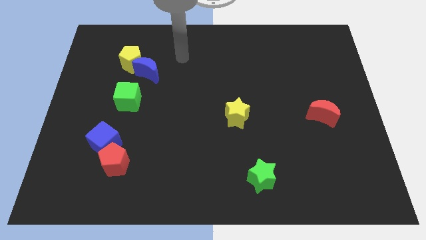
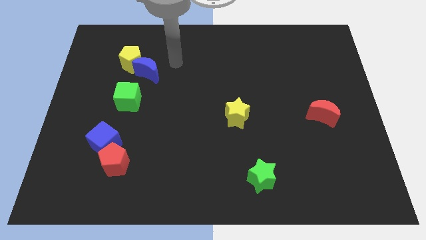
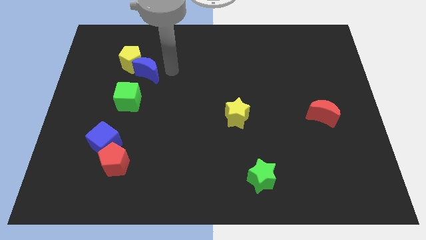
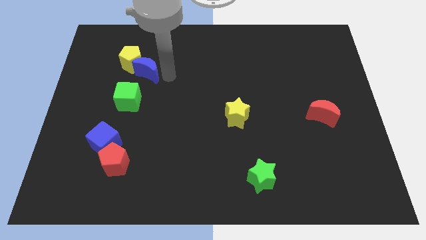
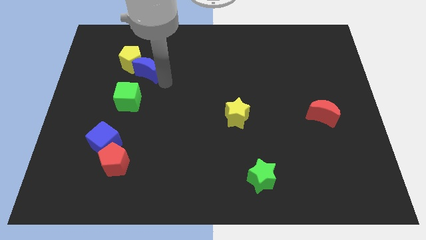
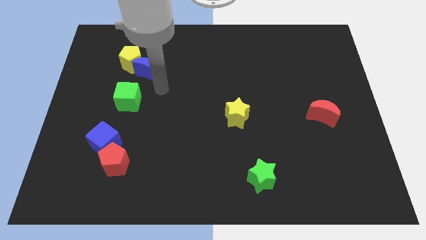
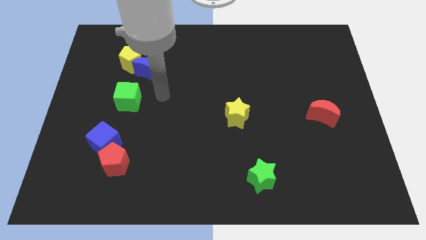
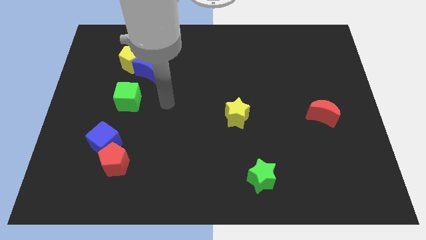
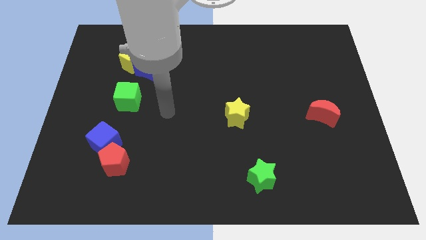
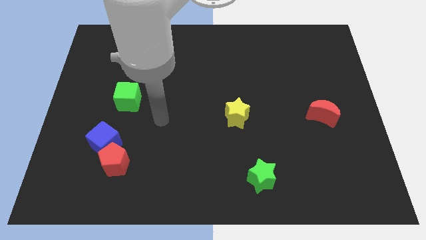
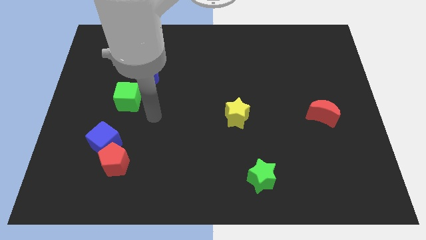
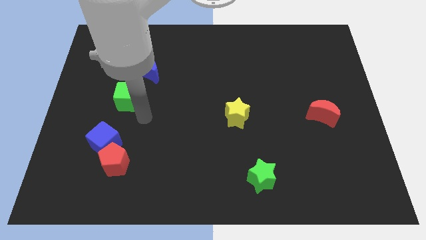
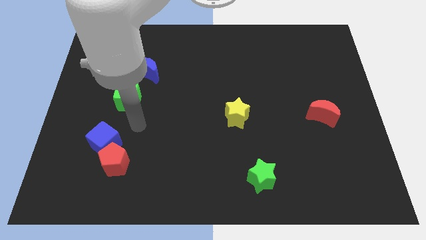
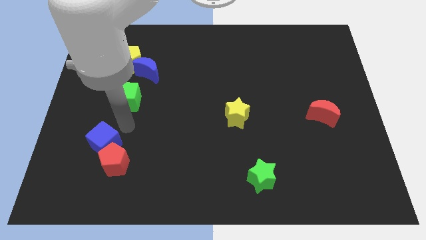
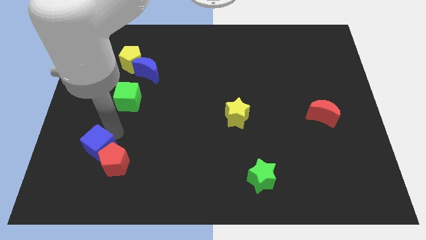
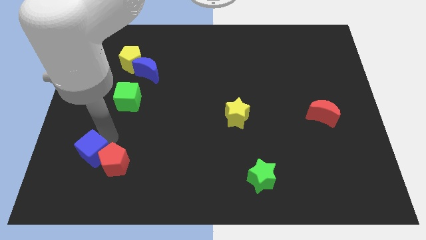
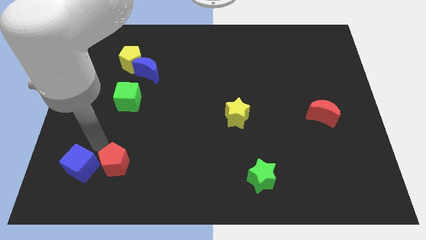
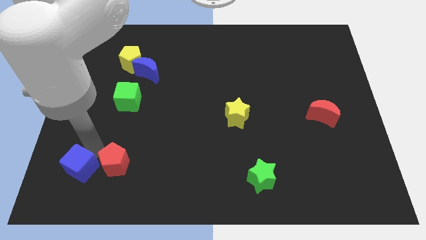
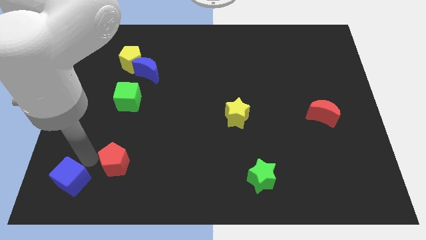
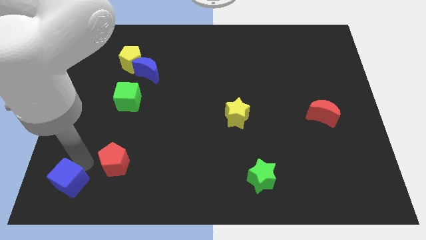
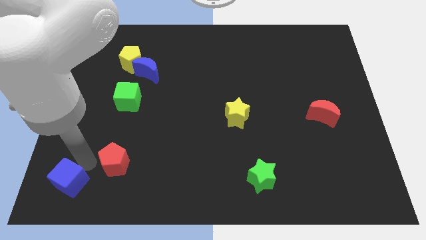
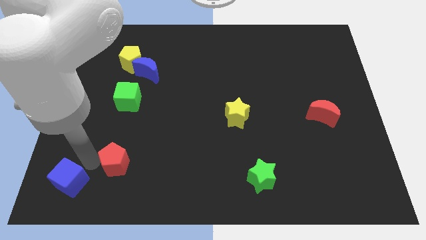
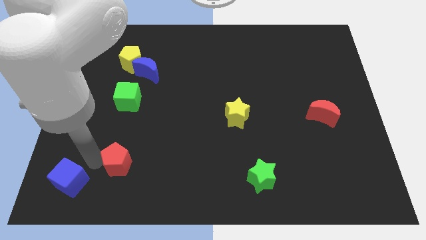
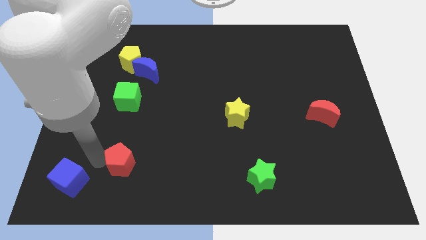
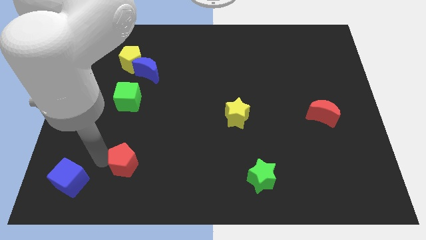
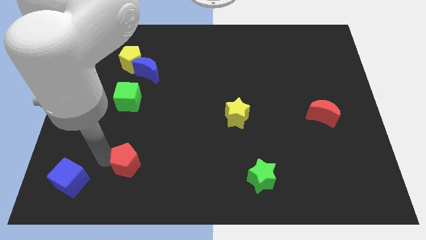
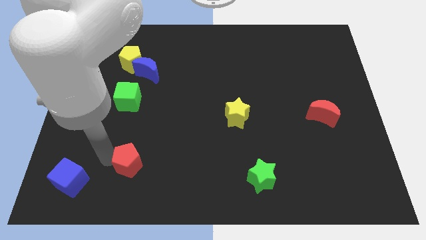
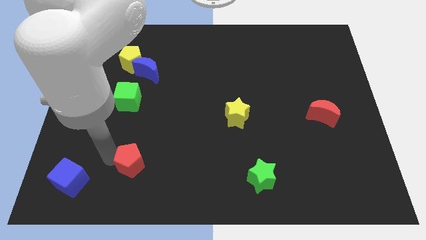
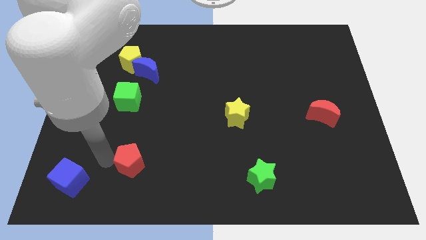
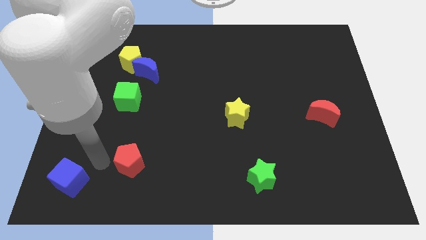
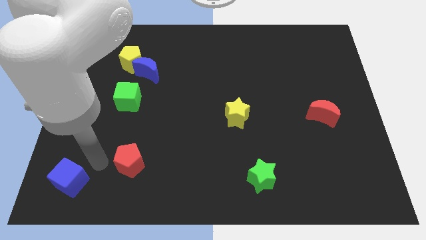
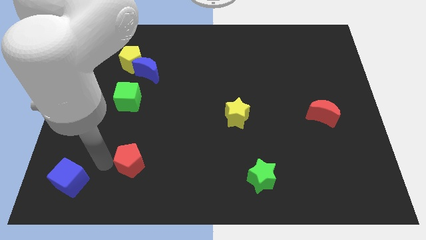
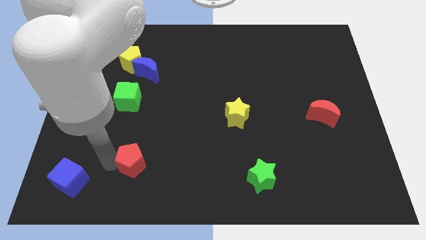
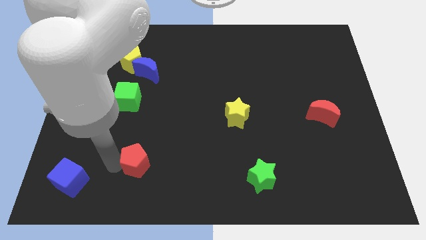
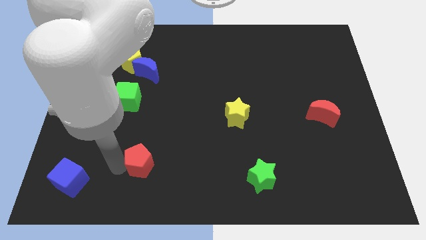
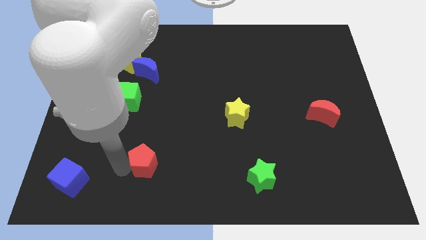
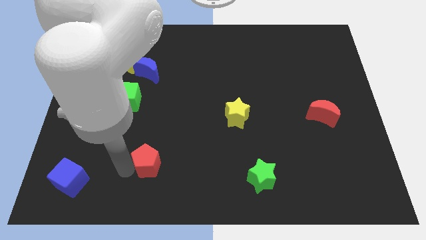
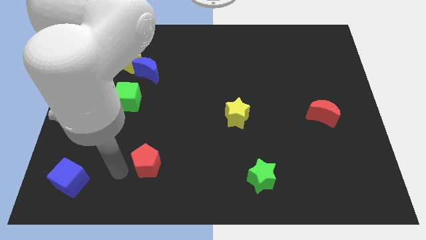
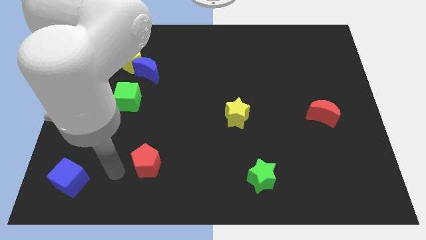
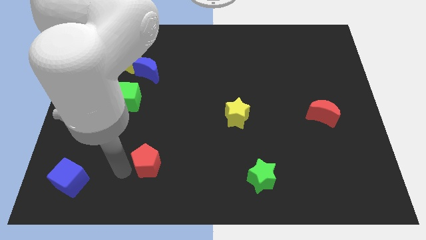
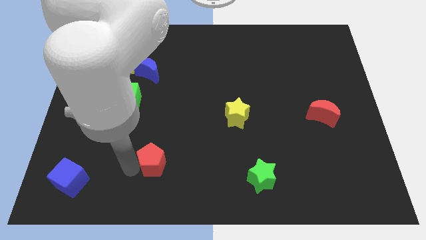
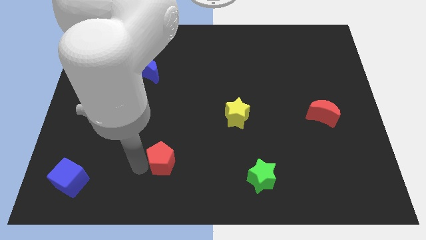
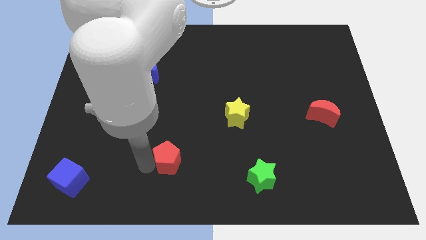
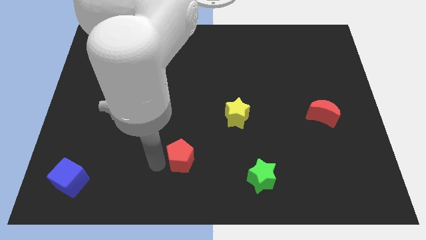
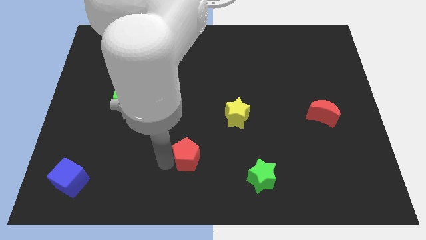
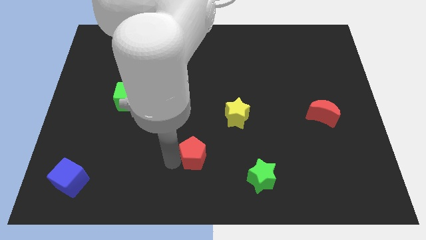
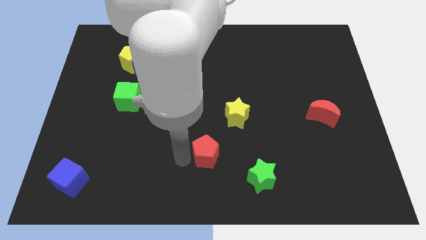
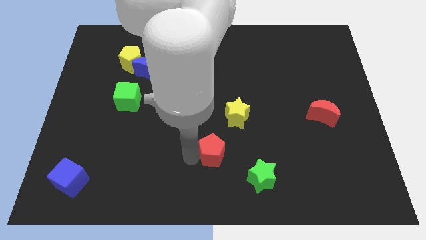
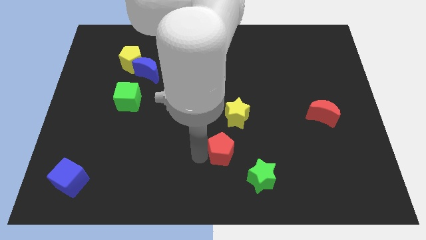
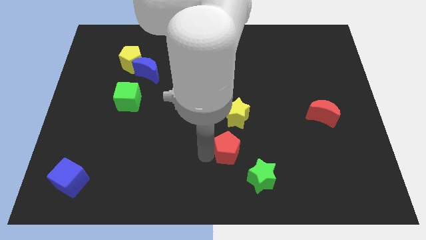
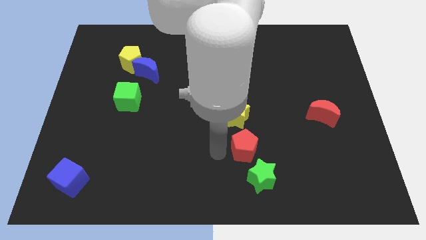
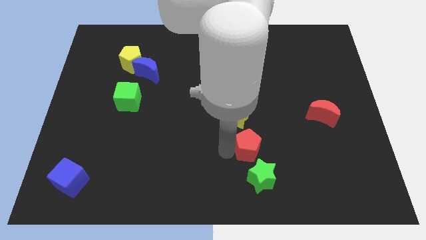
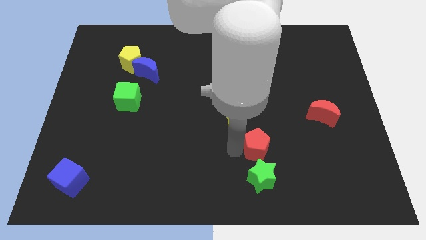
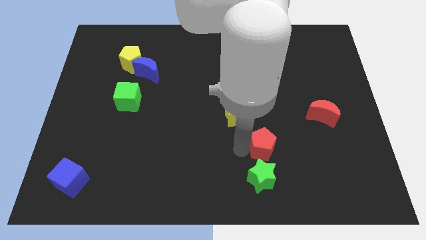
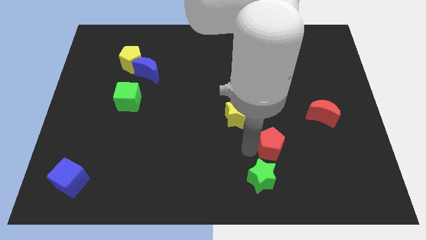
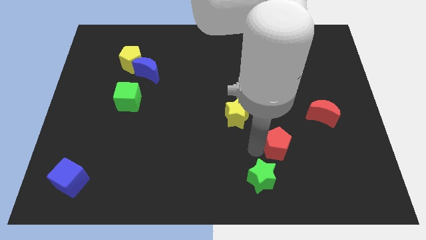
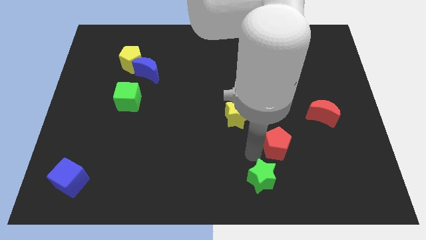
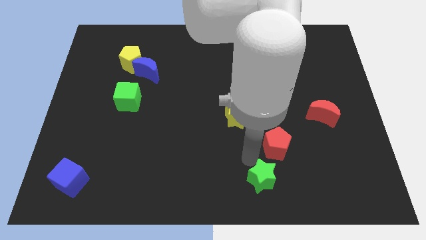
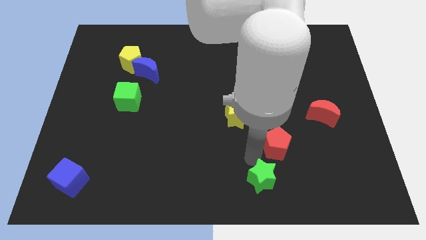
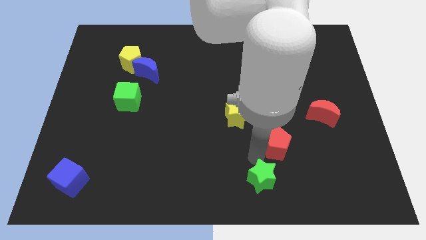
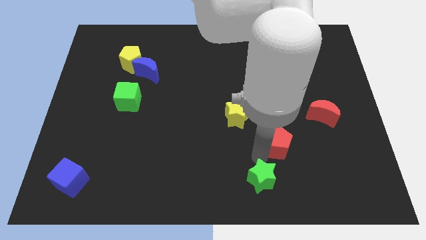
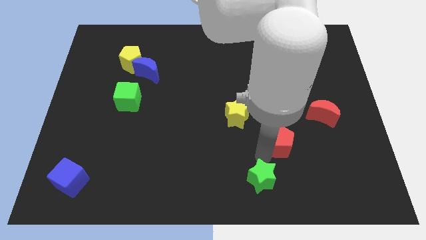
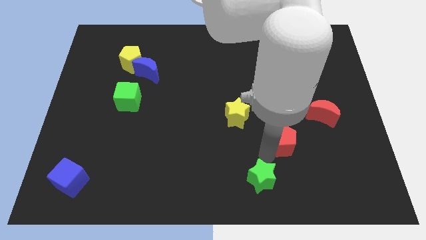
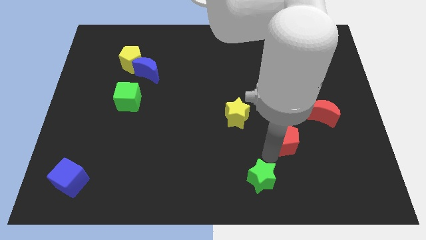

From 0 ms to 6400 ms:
put the red pentagon to the bottom left of the red moon
